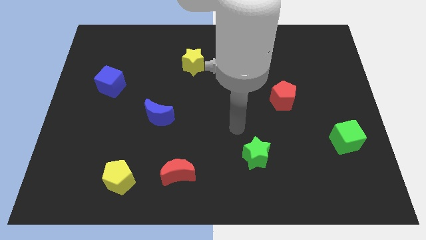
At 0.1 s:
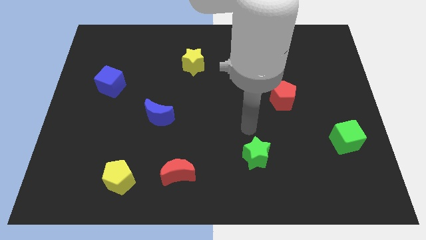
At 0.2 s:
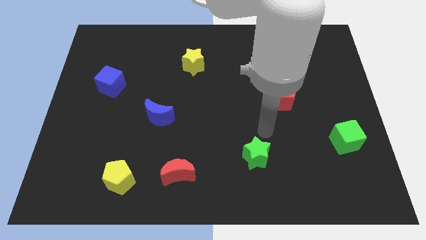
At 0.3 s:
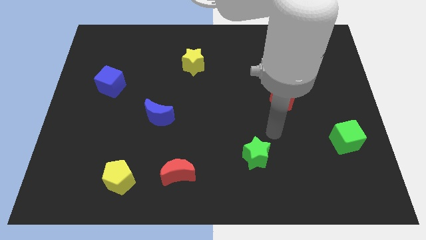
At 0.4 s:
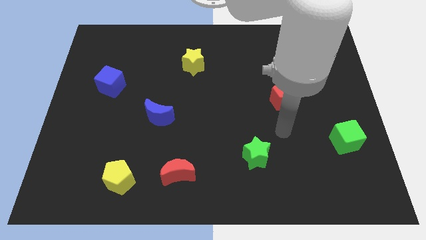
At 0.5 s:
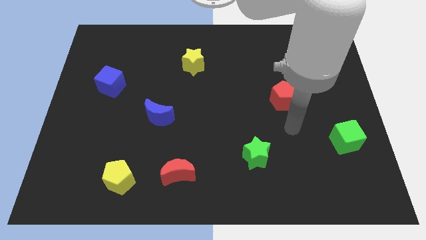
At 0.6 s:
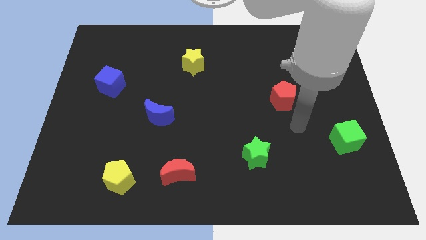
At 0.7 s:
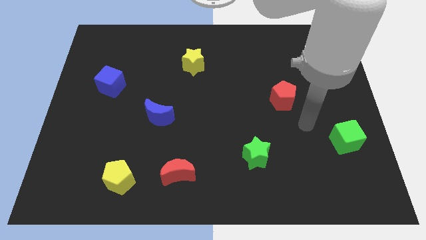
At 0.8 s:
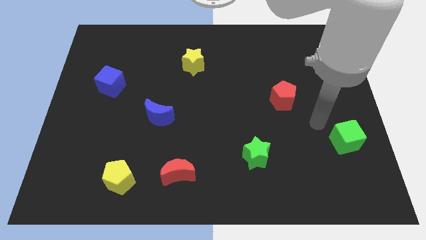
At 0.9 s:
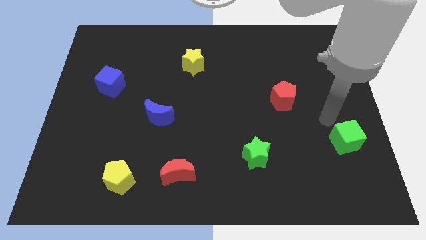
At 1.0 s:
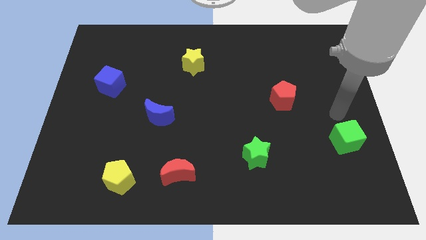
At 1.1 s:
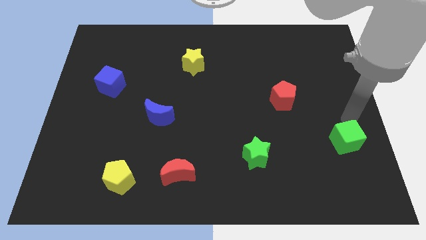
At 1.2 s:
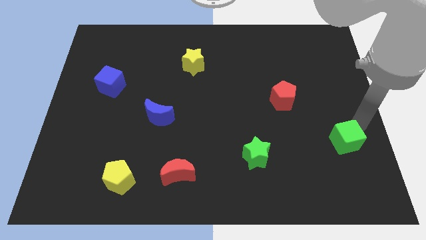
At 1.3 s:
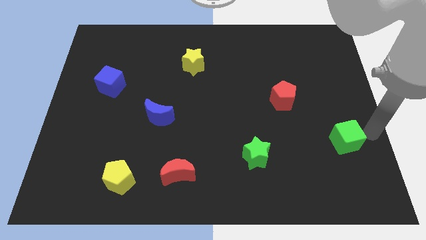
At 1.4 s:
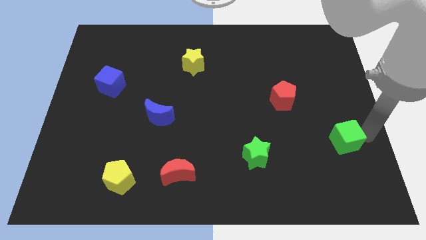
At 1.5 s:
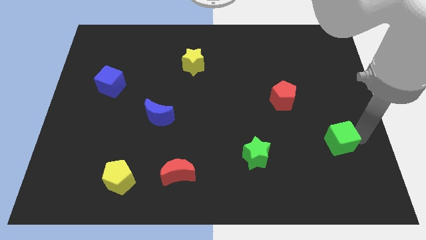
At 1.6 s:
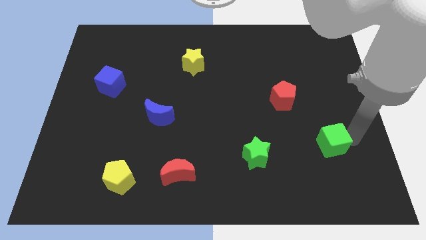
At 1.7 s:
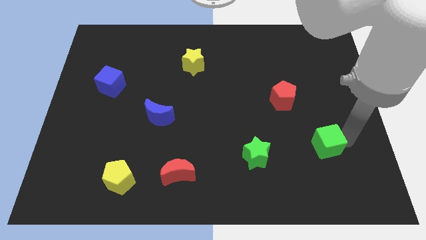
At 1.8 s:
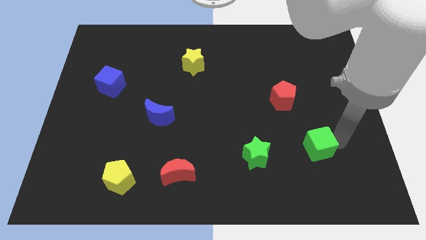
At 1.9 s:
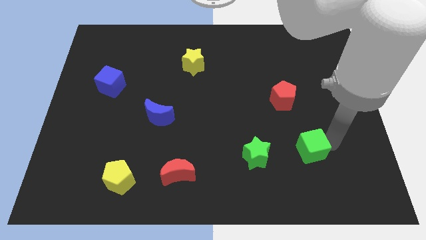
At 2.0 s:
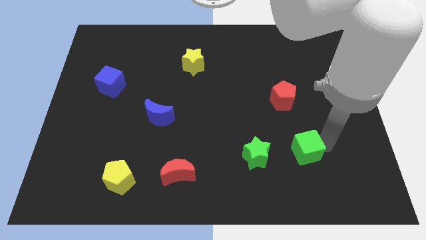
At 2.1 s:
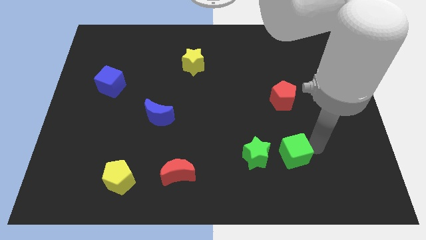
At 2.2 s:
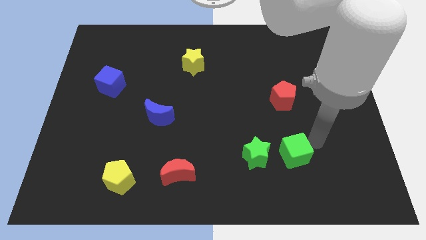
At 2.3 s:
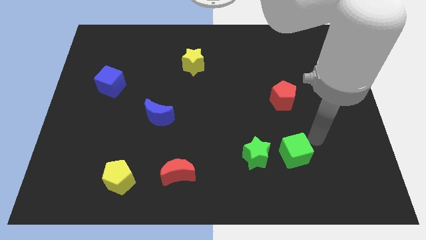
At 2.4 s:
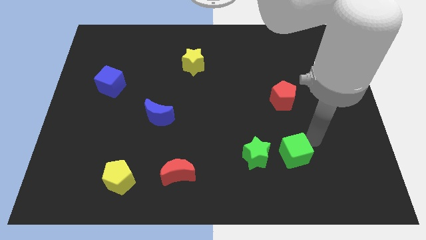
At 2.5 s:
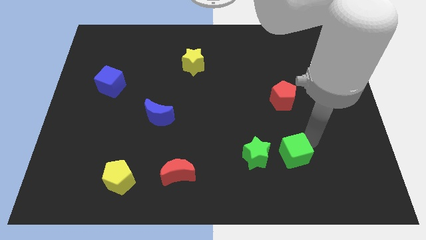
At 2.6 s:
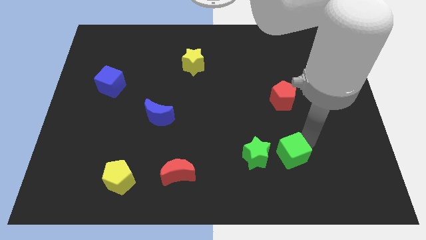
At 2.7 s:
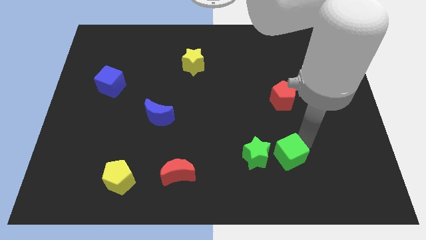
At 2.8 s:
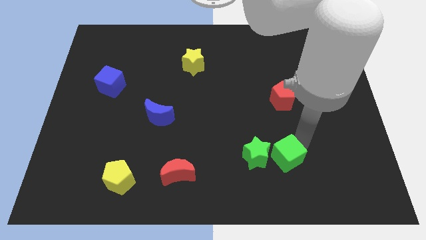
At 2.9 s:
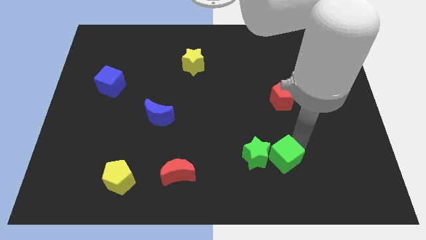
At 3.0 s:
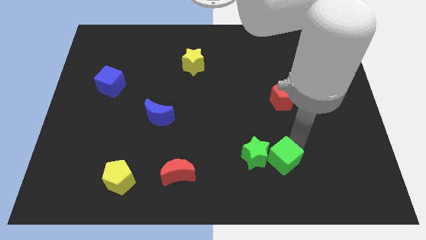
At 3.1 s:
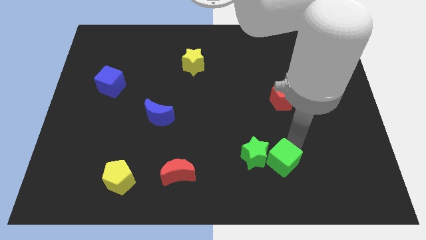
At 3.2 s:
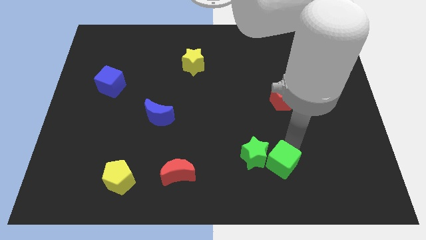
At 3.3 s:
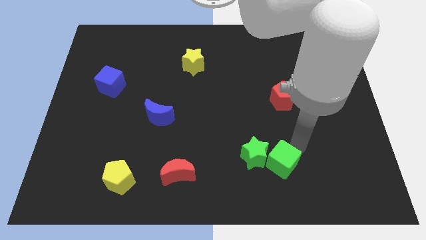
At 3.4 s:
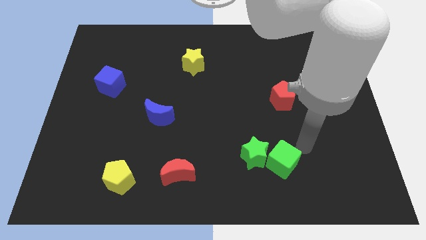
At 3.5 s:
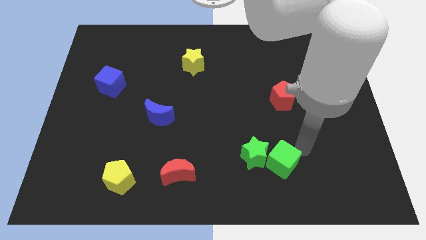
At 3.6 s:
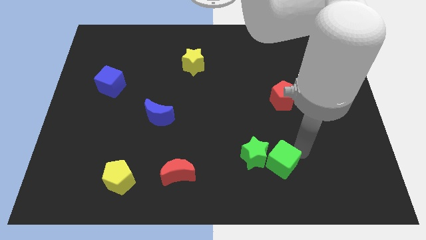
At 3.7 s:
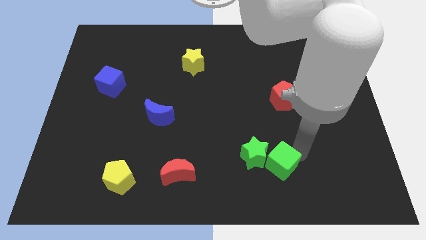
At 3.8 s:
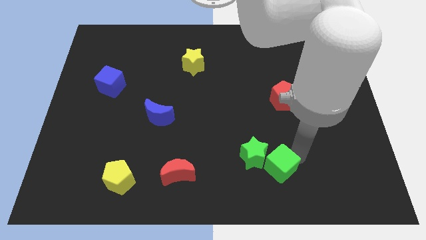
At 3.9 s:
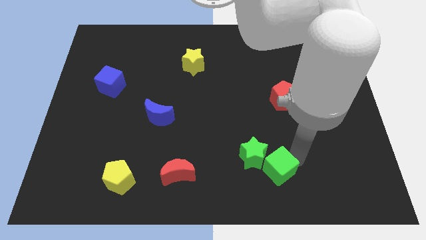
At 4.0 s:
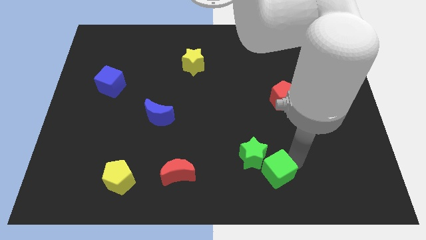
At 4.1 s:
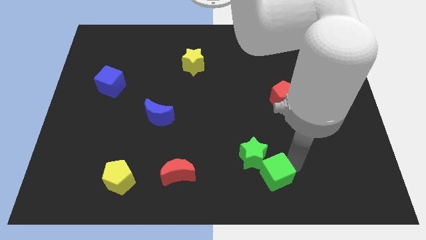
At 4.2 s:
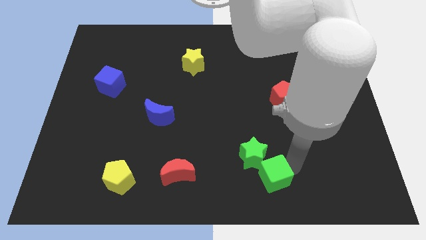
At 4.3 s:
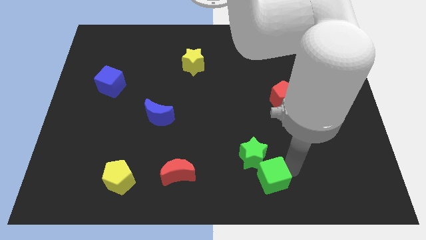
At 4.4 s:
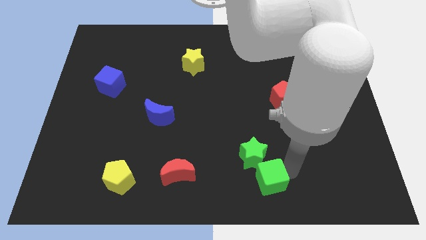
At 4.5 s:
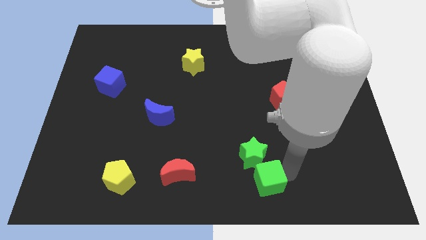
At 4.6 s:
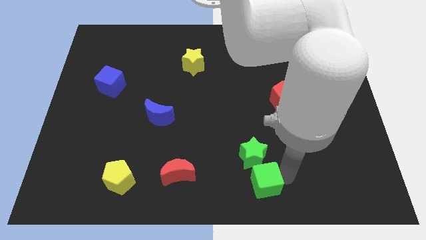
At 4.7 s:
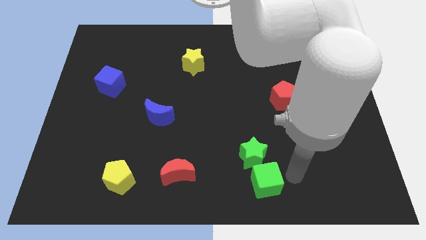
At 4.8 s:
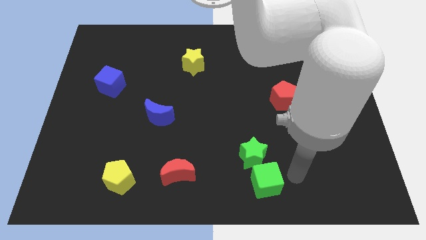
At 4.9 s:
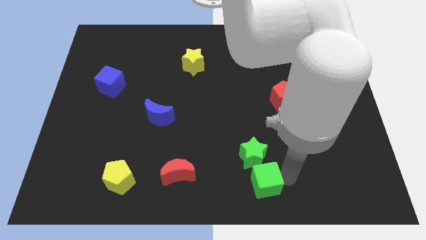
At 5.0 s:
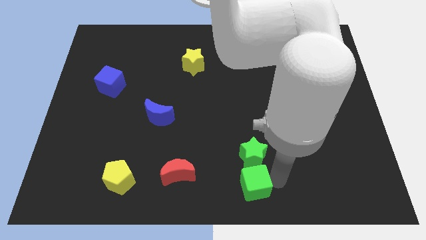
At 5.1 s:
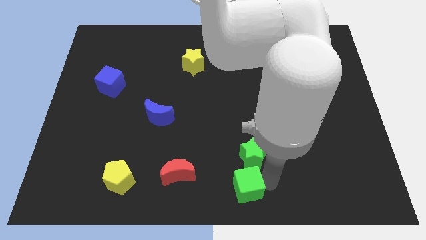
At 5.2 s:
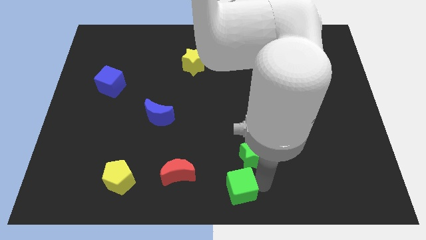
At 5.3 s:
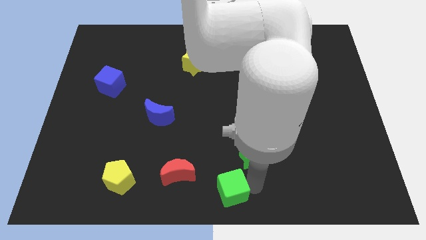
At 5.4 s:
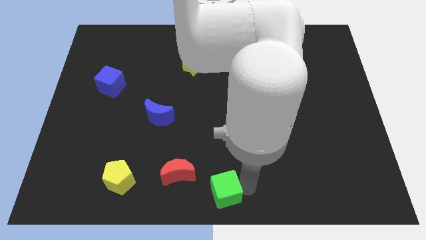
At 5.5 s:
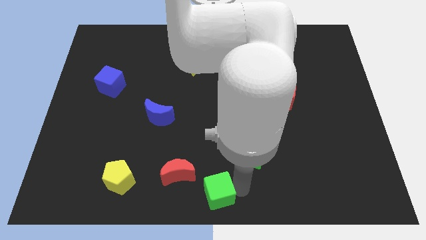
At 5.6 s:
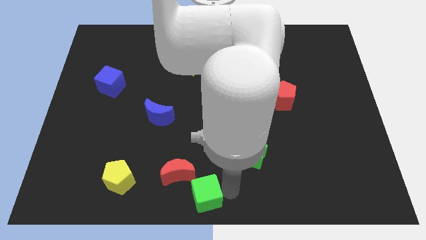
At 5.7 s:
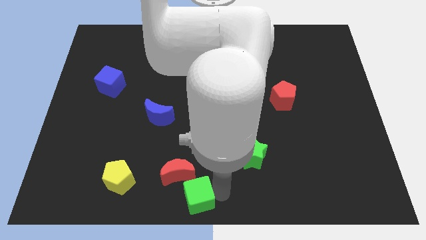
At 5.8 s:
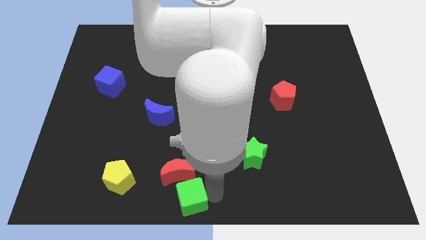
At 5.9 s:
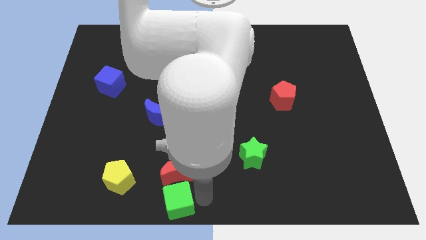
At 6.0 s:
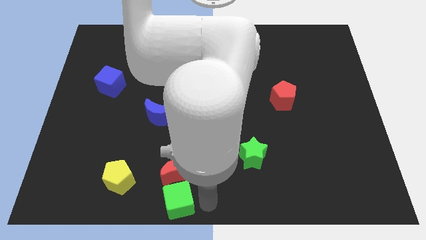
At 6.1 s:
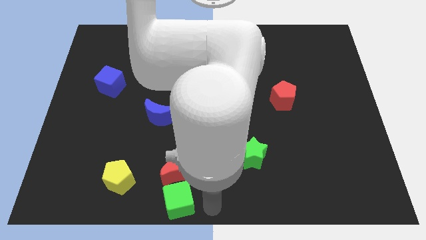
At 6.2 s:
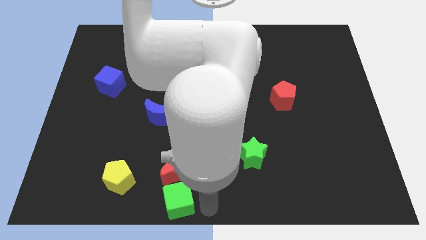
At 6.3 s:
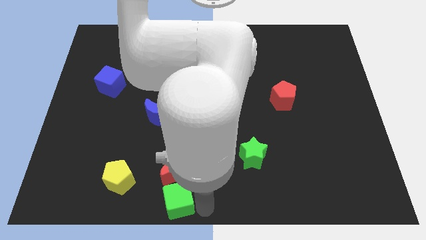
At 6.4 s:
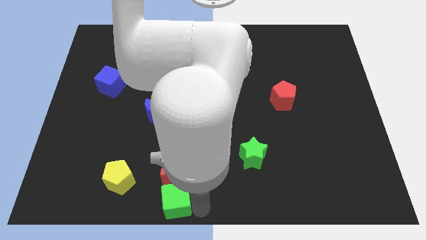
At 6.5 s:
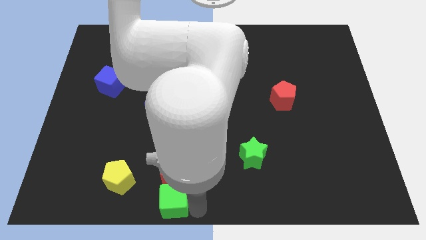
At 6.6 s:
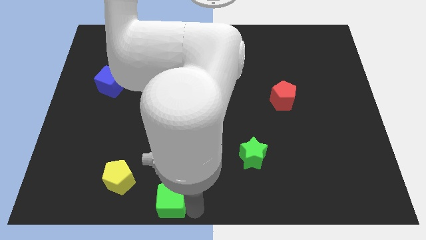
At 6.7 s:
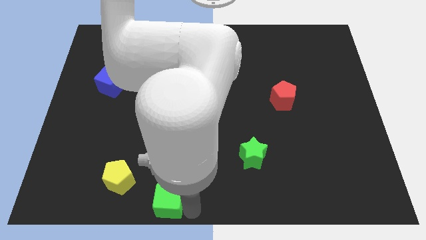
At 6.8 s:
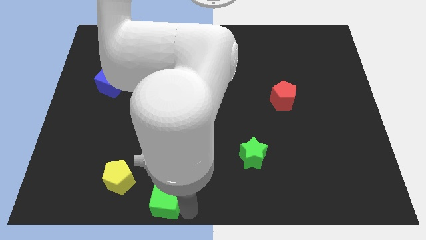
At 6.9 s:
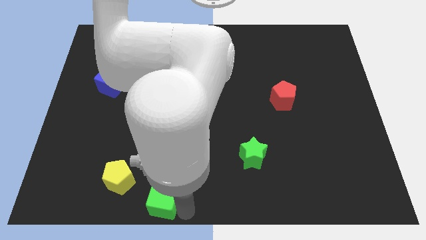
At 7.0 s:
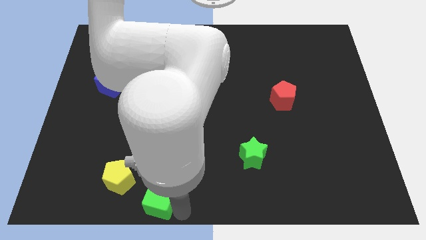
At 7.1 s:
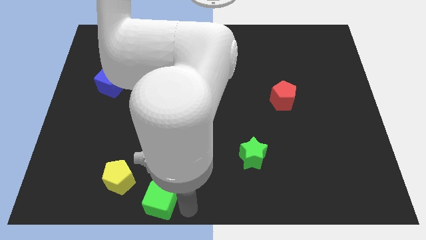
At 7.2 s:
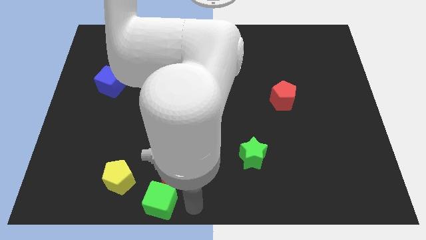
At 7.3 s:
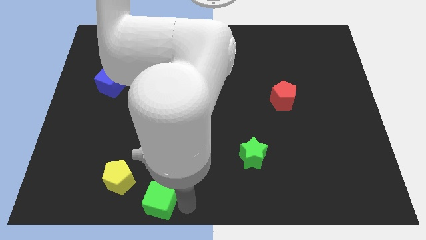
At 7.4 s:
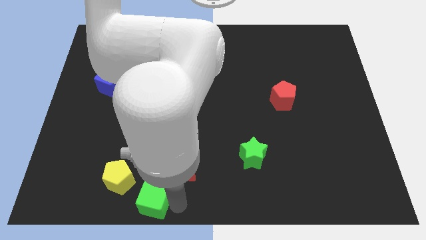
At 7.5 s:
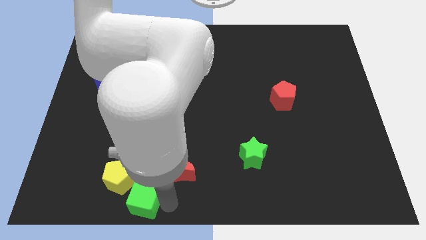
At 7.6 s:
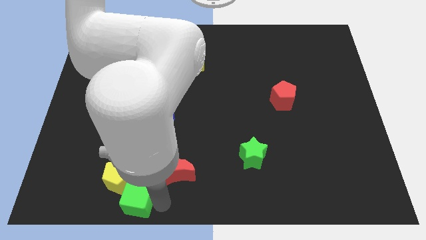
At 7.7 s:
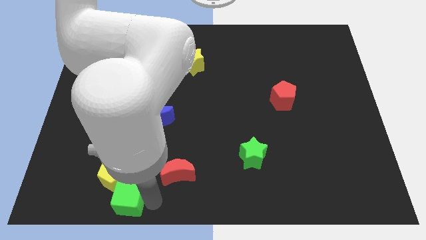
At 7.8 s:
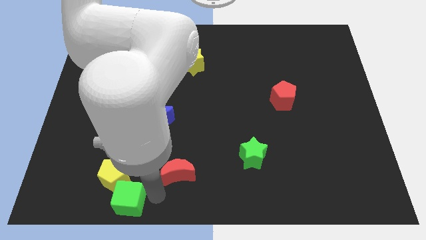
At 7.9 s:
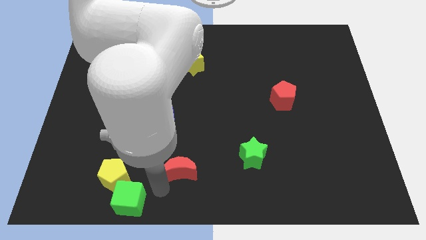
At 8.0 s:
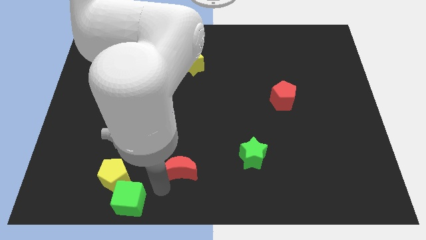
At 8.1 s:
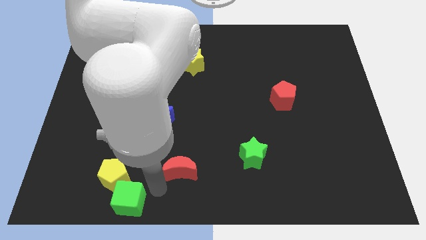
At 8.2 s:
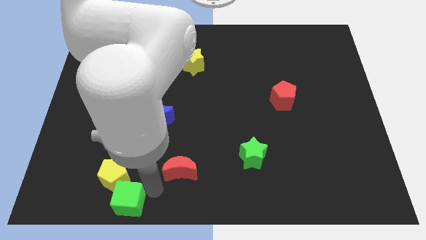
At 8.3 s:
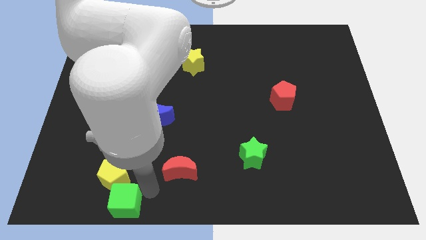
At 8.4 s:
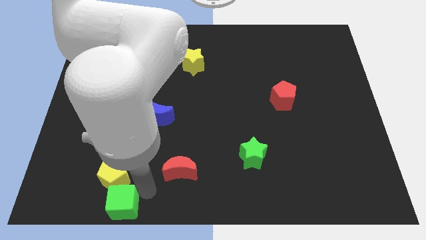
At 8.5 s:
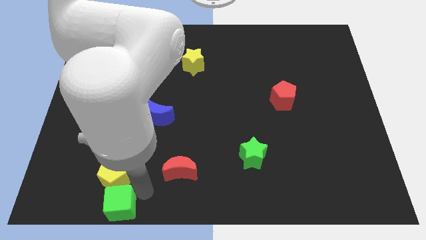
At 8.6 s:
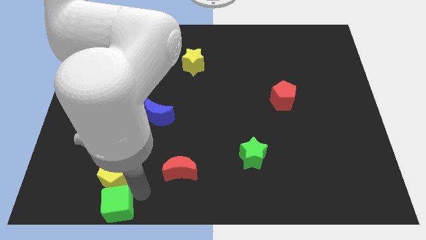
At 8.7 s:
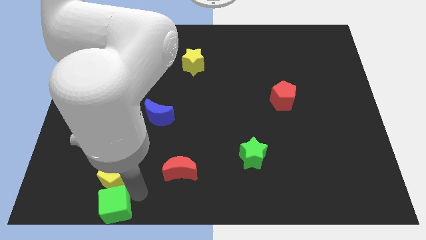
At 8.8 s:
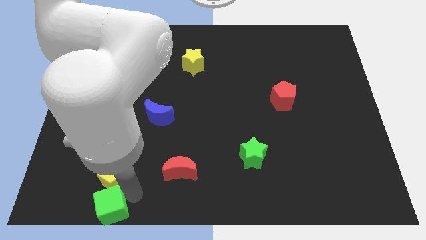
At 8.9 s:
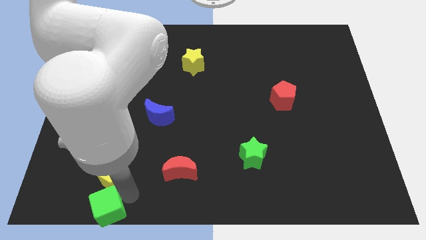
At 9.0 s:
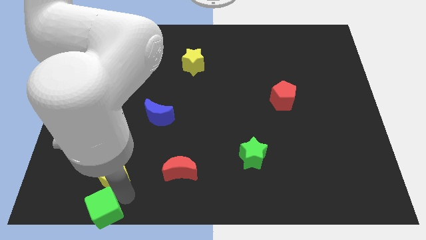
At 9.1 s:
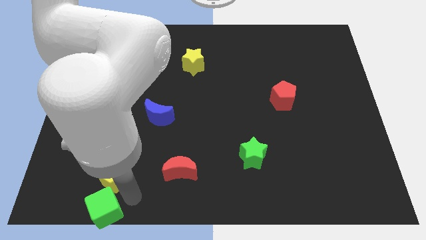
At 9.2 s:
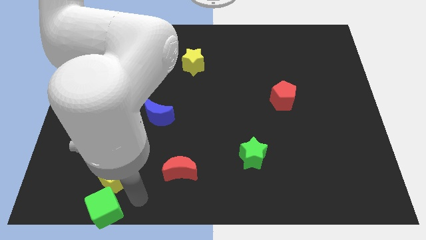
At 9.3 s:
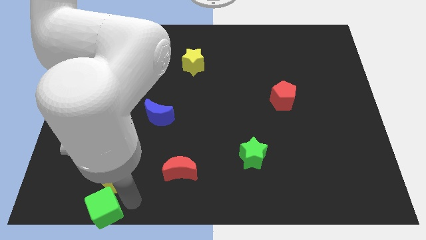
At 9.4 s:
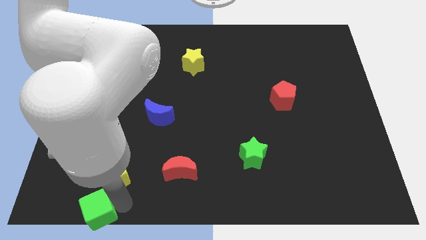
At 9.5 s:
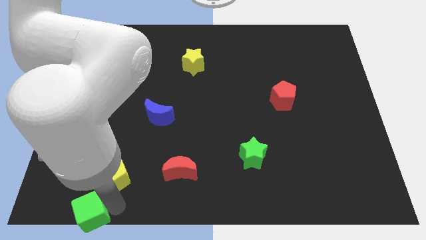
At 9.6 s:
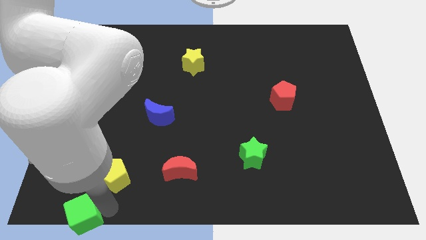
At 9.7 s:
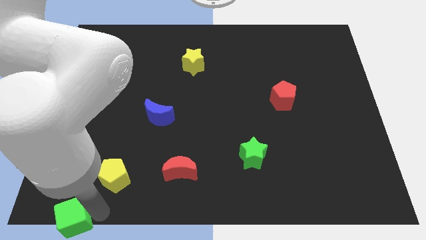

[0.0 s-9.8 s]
put the green cube to the bottom left
